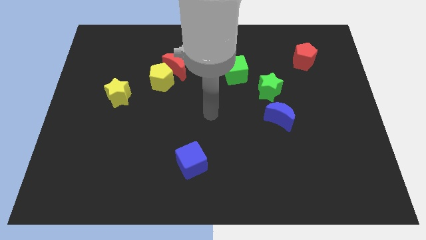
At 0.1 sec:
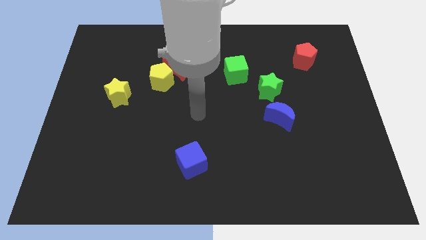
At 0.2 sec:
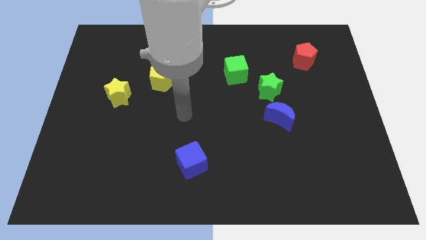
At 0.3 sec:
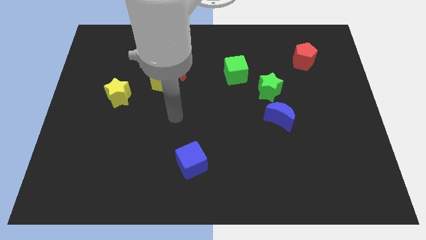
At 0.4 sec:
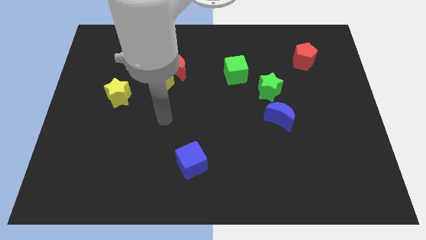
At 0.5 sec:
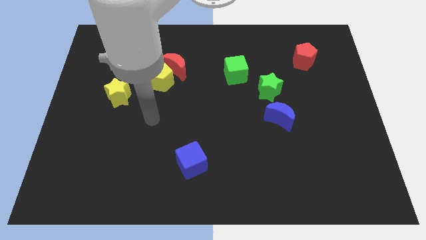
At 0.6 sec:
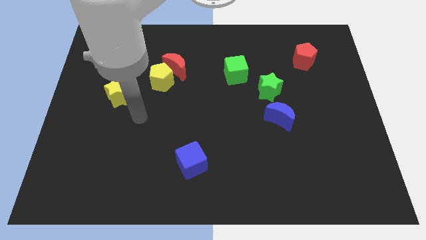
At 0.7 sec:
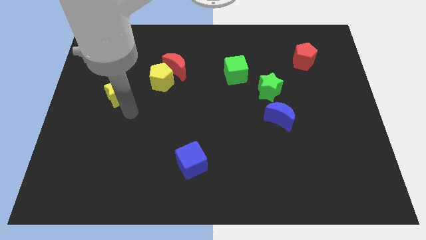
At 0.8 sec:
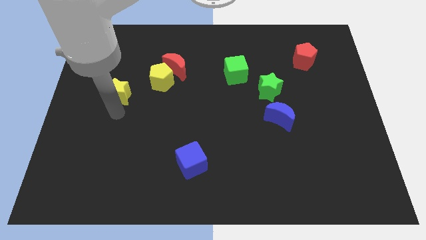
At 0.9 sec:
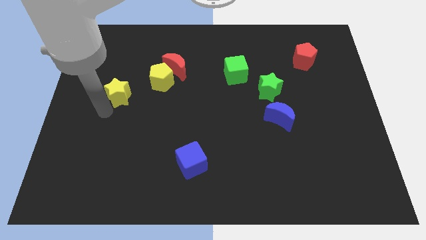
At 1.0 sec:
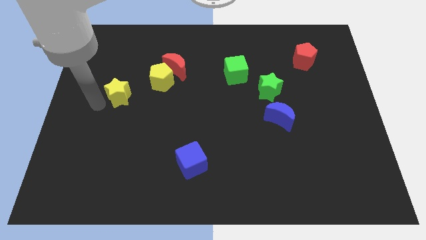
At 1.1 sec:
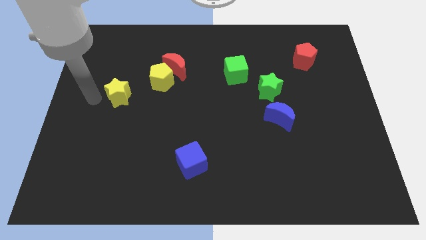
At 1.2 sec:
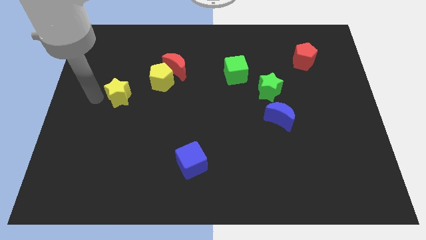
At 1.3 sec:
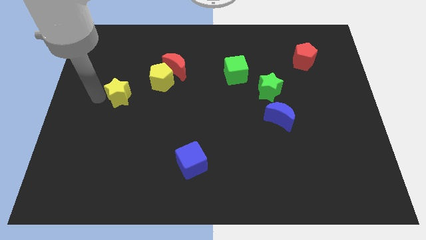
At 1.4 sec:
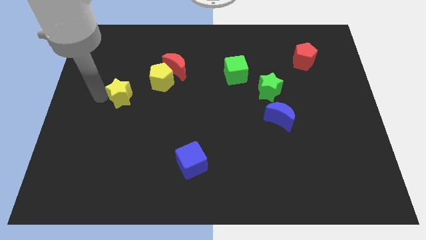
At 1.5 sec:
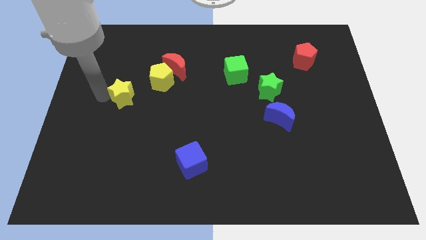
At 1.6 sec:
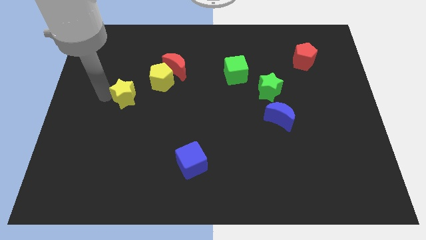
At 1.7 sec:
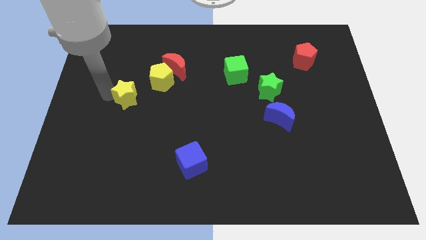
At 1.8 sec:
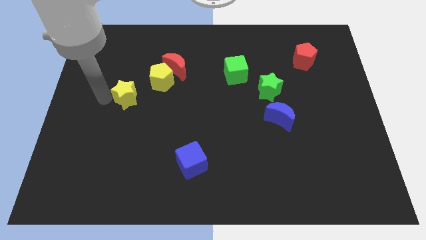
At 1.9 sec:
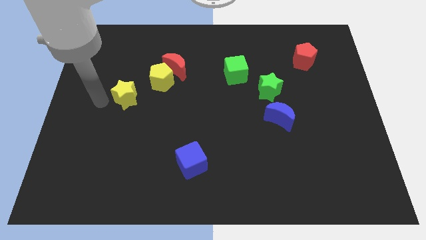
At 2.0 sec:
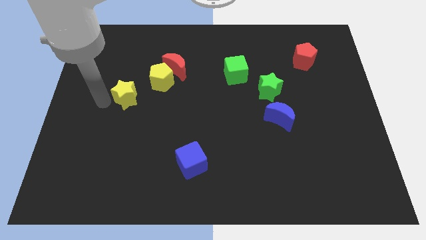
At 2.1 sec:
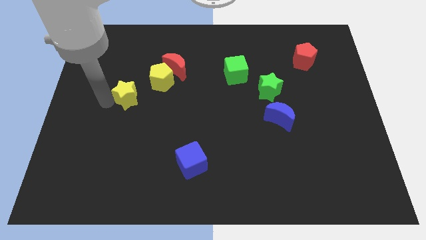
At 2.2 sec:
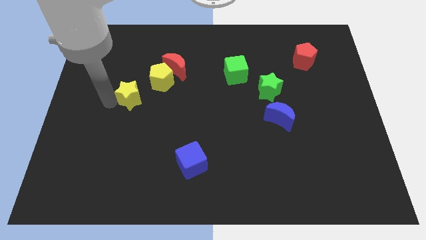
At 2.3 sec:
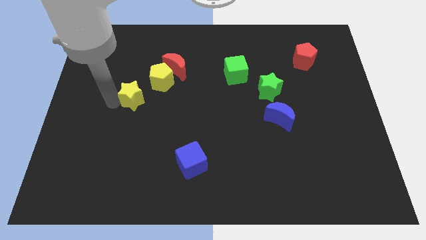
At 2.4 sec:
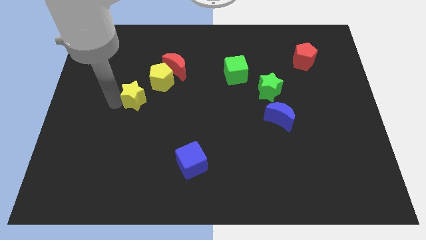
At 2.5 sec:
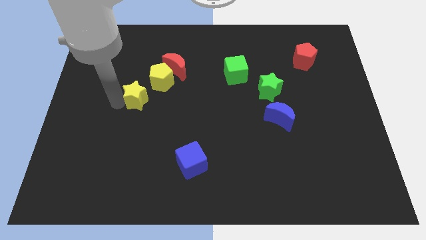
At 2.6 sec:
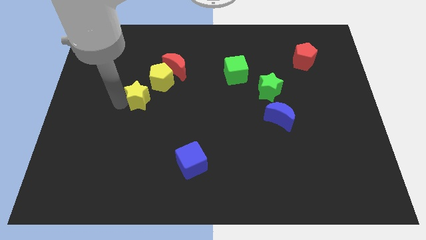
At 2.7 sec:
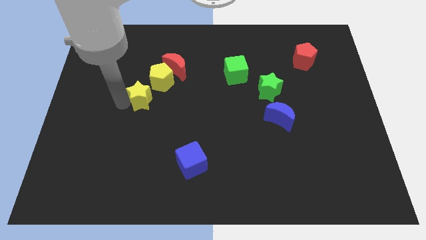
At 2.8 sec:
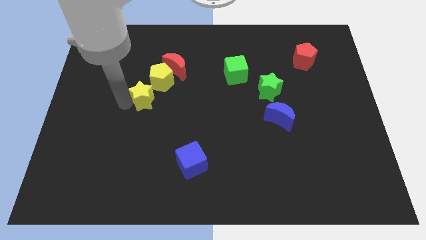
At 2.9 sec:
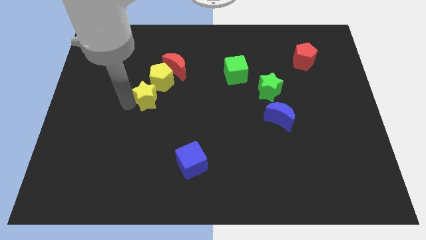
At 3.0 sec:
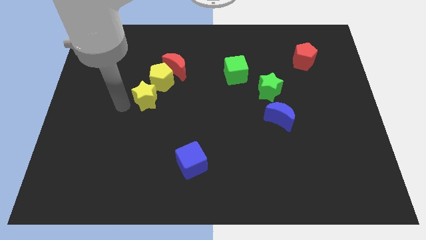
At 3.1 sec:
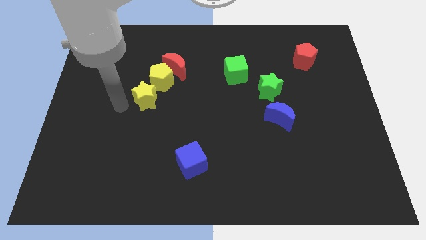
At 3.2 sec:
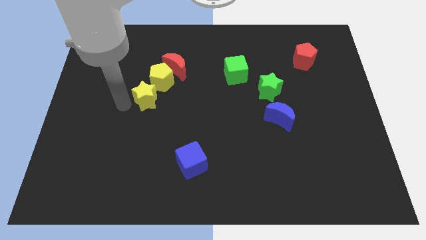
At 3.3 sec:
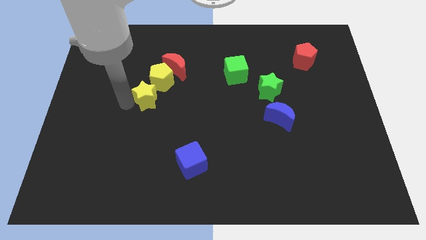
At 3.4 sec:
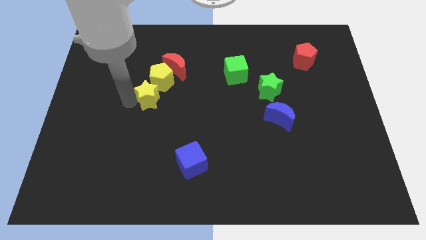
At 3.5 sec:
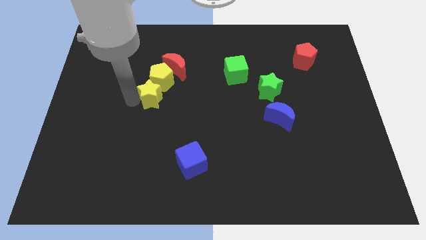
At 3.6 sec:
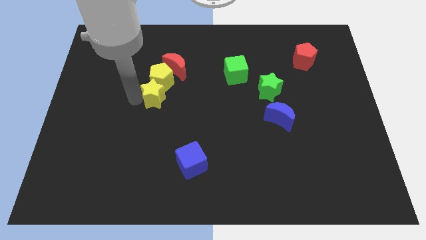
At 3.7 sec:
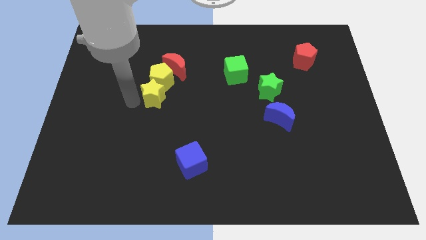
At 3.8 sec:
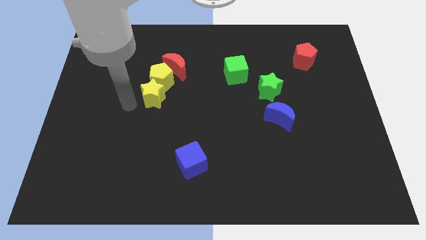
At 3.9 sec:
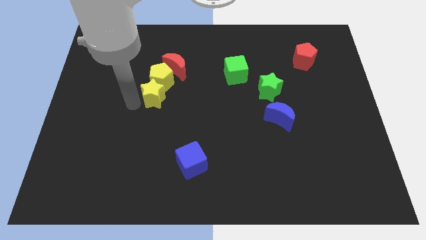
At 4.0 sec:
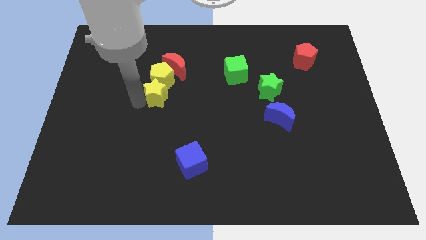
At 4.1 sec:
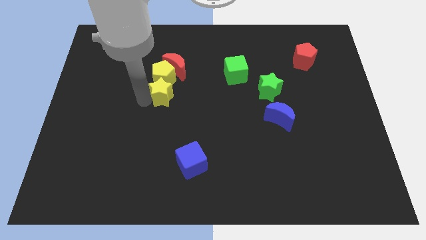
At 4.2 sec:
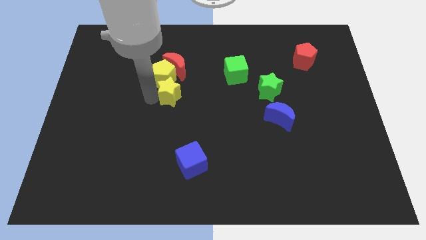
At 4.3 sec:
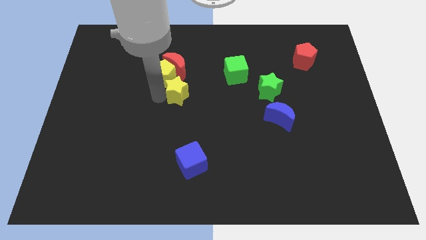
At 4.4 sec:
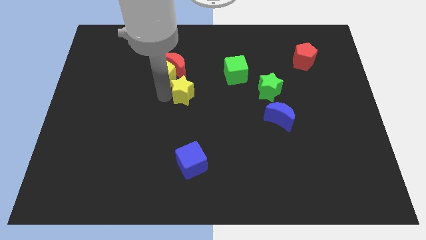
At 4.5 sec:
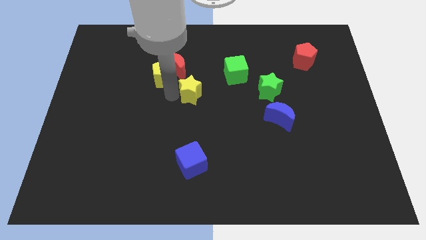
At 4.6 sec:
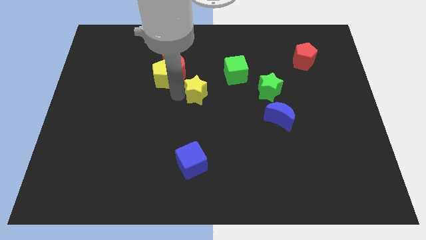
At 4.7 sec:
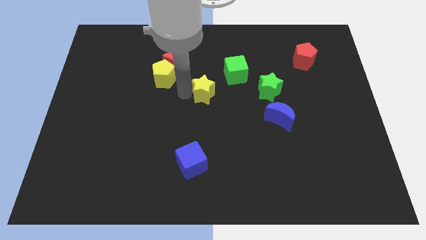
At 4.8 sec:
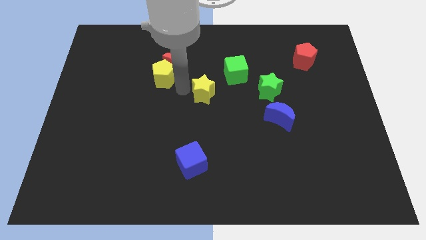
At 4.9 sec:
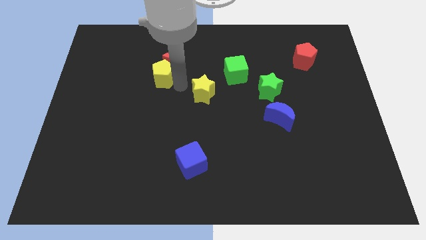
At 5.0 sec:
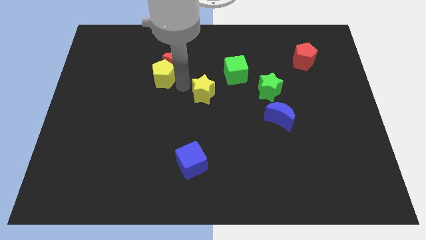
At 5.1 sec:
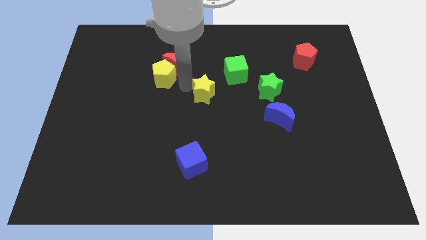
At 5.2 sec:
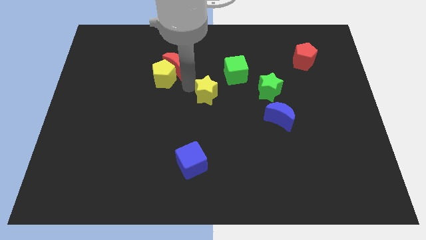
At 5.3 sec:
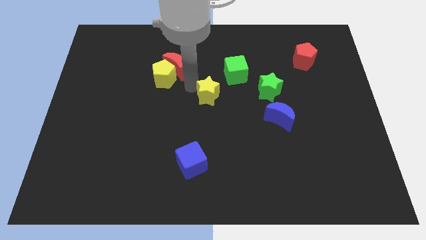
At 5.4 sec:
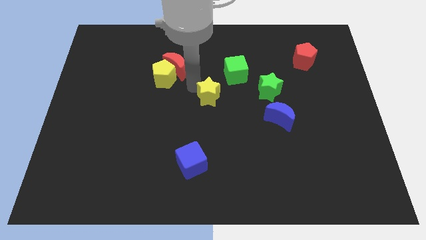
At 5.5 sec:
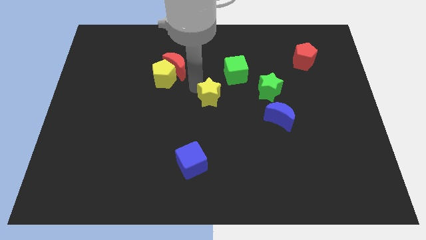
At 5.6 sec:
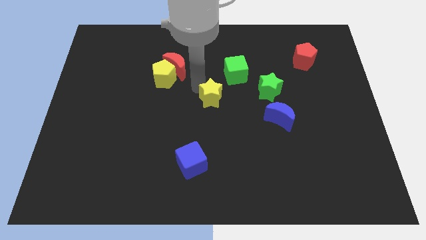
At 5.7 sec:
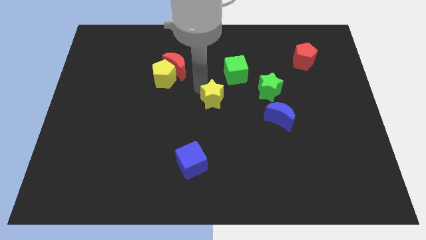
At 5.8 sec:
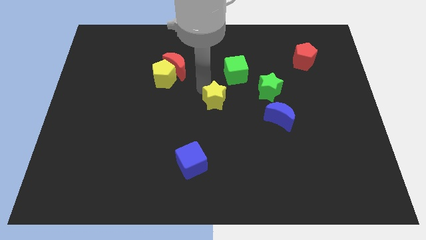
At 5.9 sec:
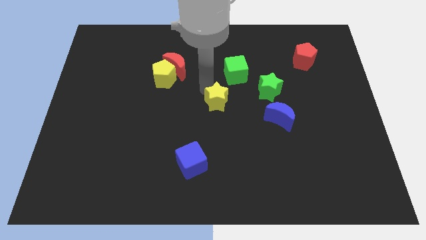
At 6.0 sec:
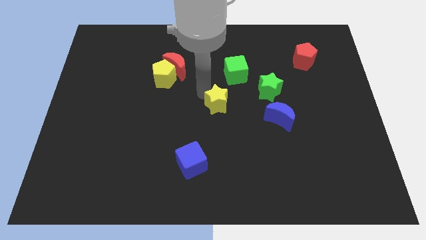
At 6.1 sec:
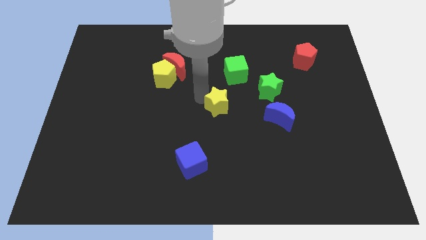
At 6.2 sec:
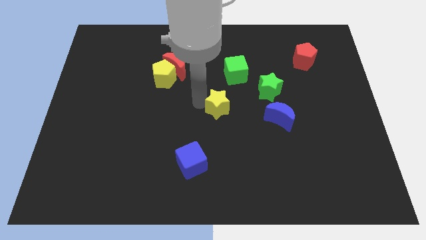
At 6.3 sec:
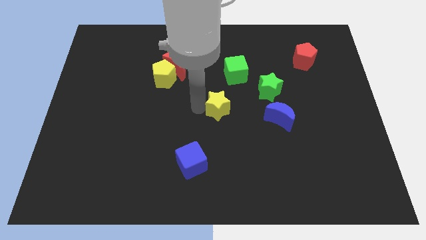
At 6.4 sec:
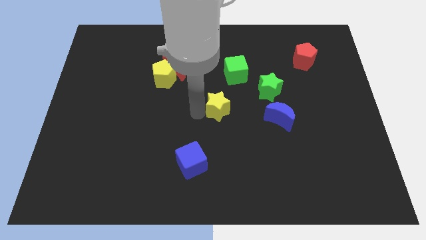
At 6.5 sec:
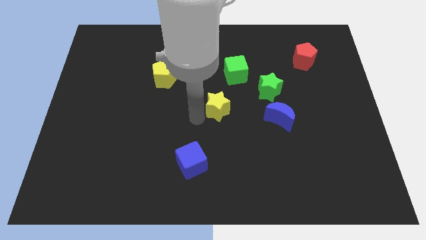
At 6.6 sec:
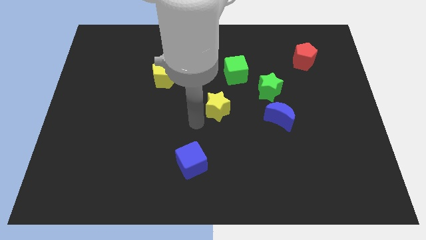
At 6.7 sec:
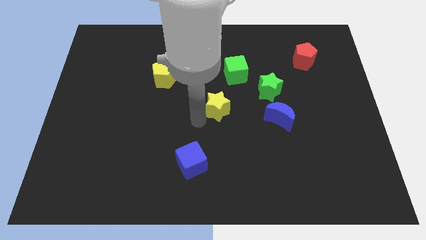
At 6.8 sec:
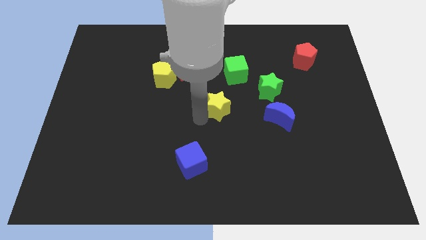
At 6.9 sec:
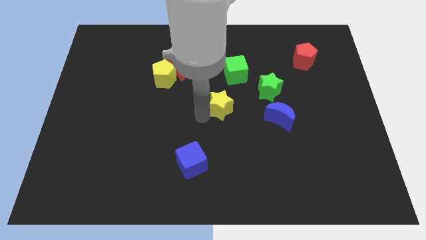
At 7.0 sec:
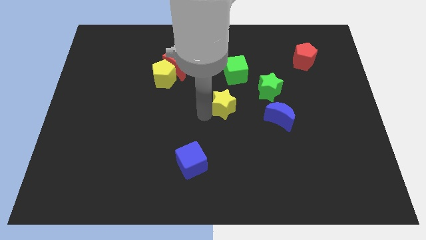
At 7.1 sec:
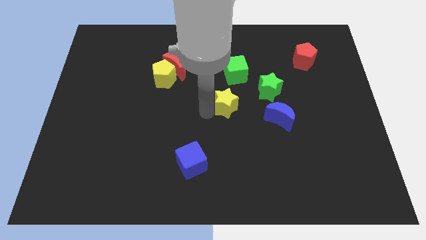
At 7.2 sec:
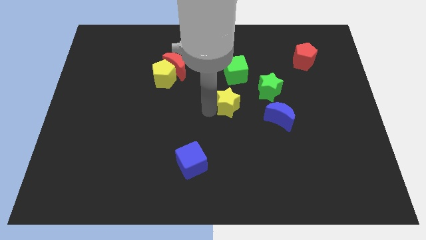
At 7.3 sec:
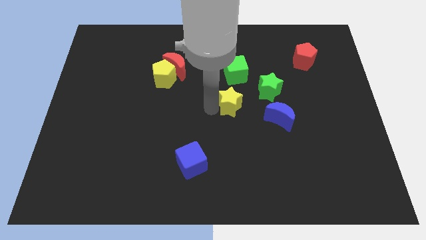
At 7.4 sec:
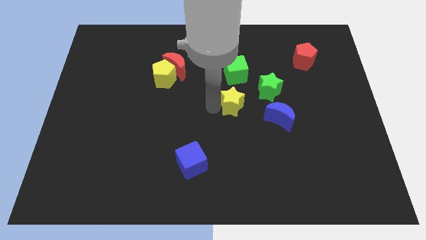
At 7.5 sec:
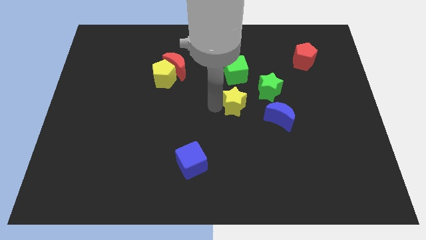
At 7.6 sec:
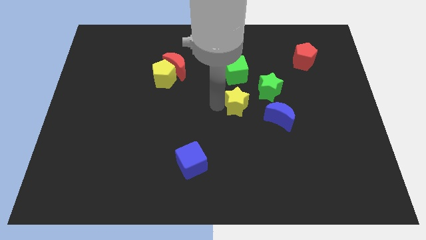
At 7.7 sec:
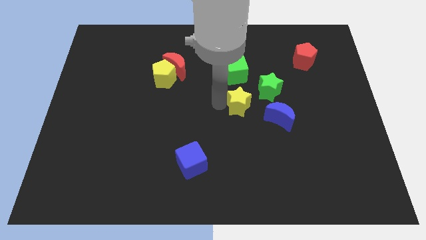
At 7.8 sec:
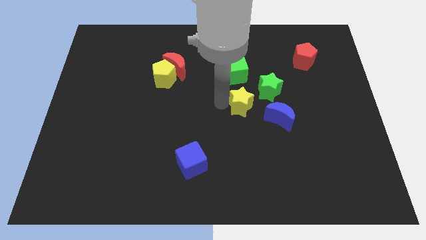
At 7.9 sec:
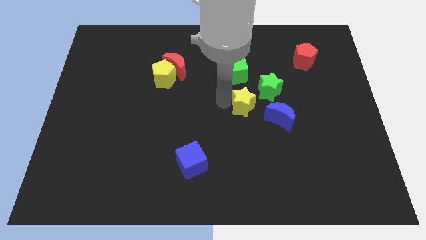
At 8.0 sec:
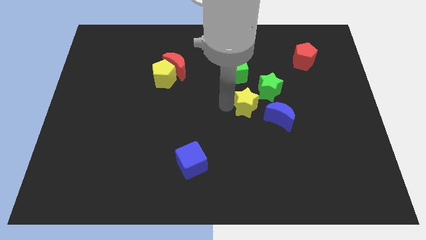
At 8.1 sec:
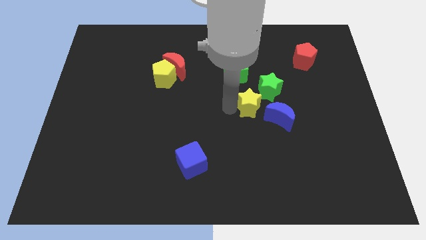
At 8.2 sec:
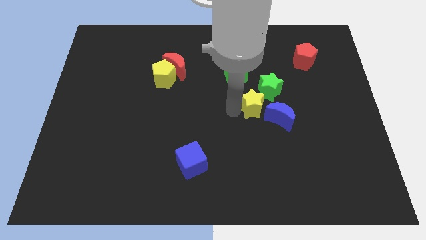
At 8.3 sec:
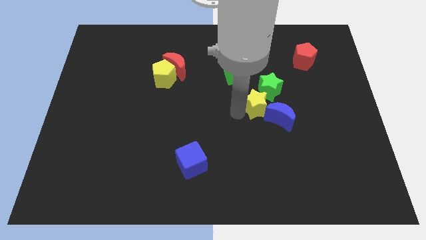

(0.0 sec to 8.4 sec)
push the yellow star close to the green star
